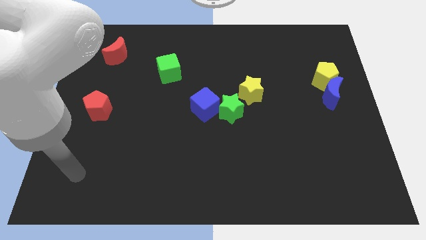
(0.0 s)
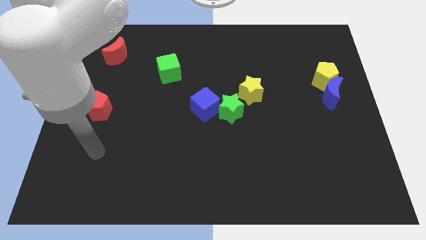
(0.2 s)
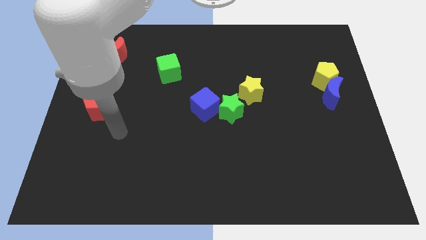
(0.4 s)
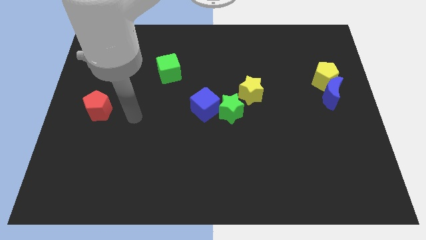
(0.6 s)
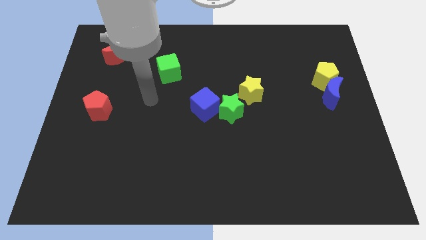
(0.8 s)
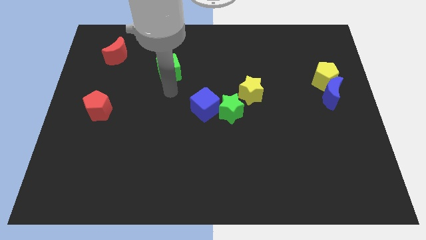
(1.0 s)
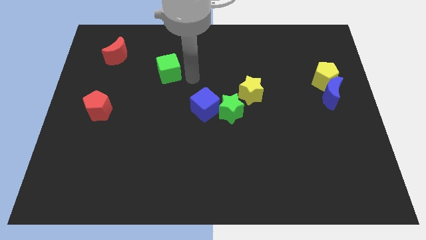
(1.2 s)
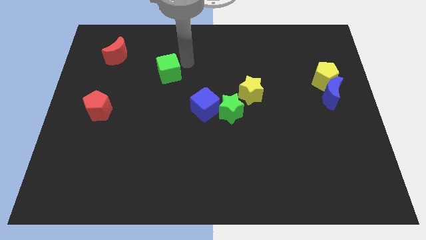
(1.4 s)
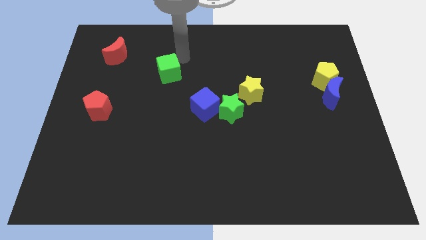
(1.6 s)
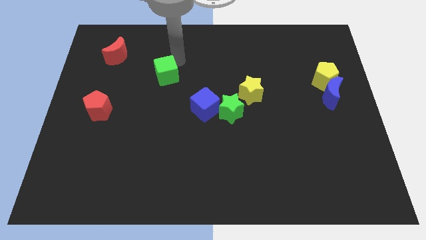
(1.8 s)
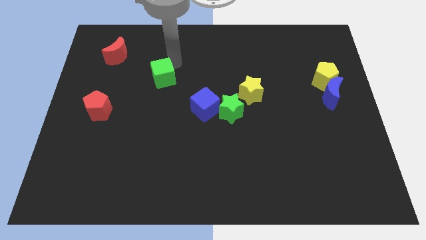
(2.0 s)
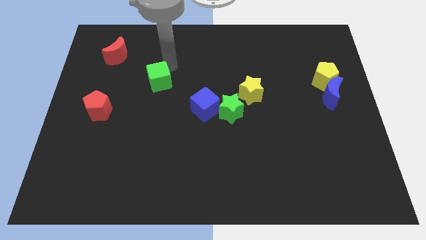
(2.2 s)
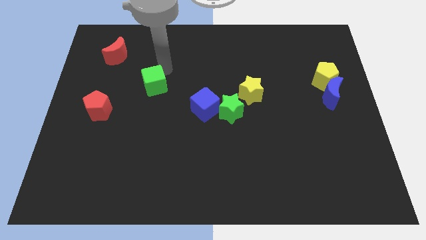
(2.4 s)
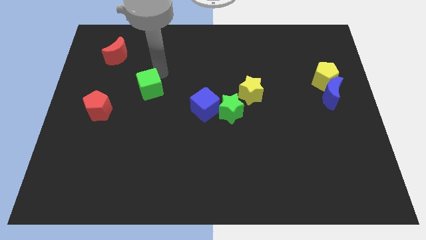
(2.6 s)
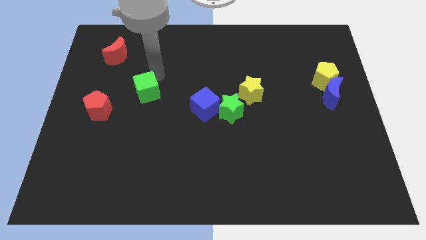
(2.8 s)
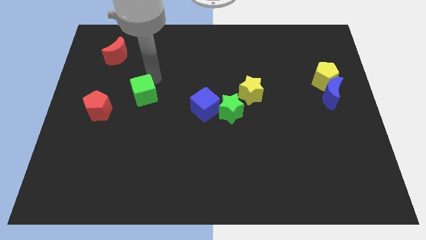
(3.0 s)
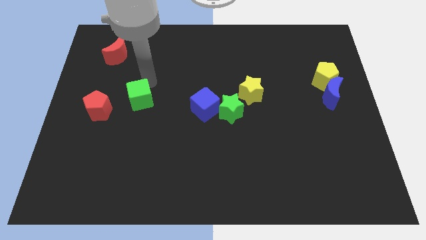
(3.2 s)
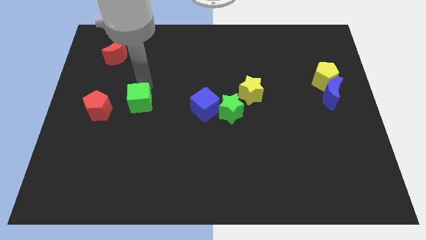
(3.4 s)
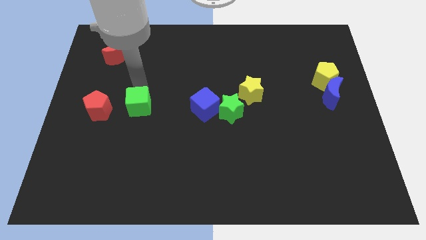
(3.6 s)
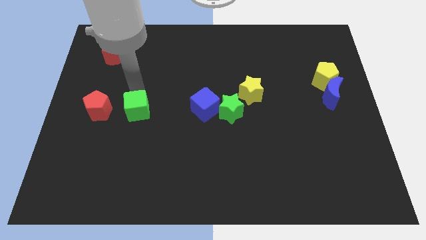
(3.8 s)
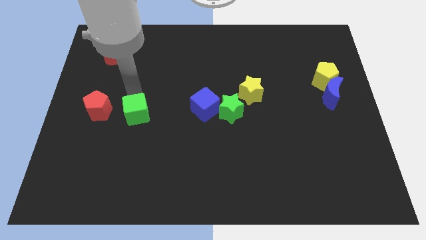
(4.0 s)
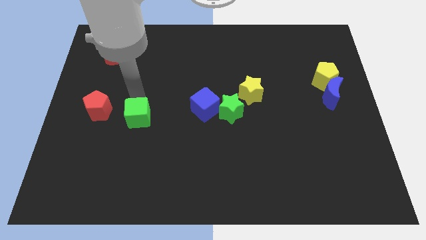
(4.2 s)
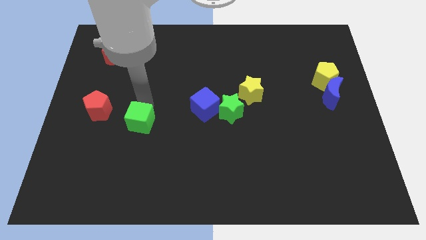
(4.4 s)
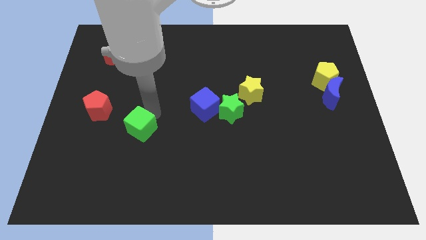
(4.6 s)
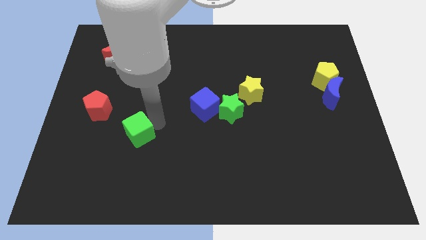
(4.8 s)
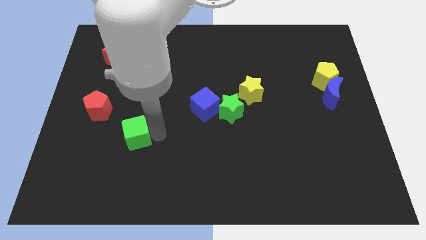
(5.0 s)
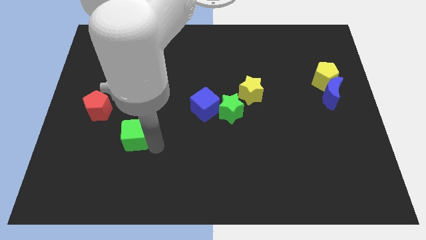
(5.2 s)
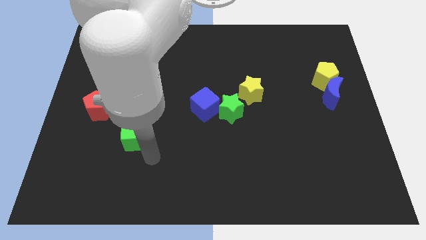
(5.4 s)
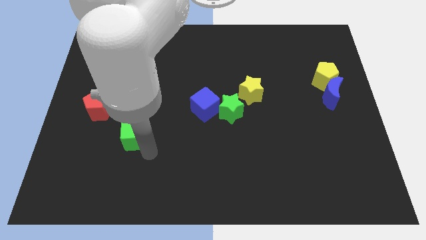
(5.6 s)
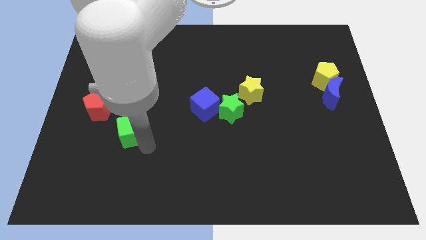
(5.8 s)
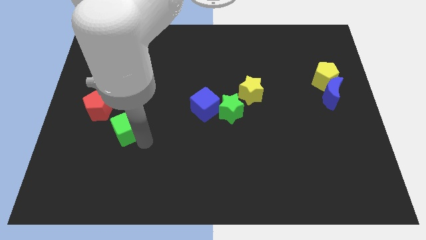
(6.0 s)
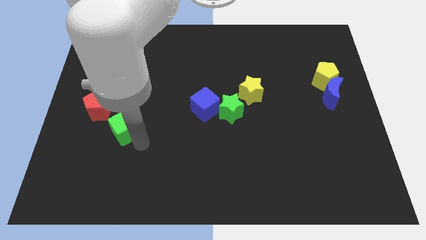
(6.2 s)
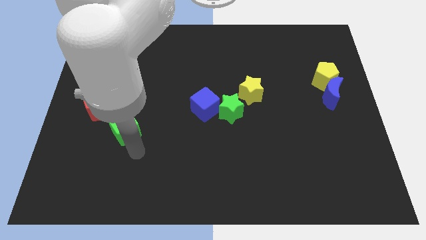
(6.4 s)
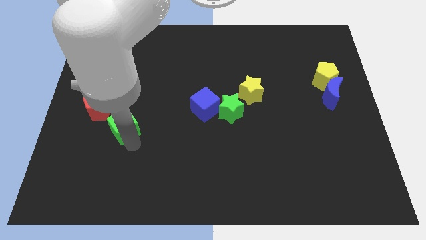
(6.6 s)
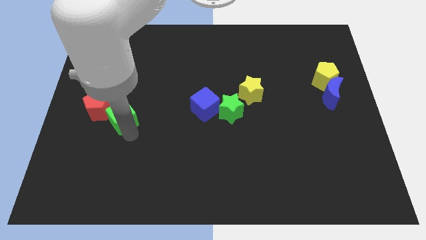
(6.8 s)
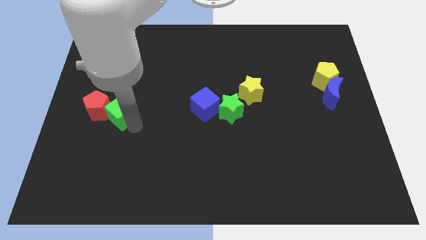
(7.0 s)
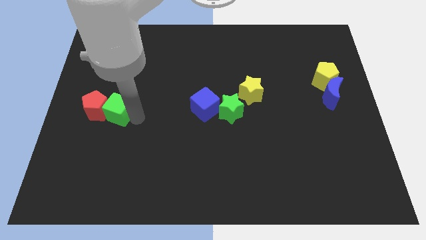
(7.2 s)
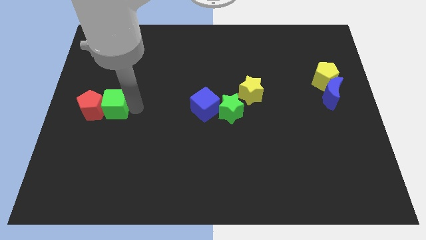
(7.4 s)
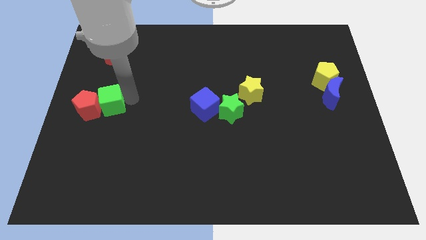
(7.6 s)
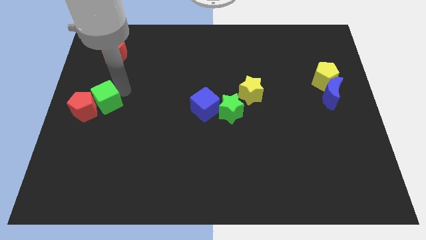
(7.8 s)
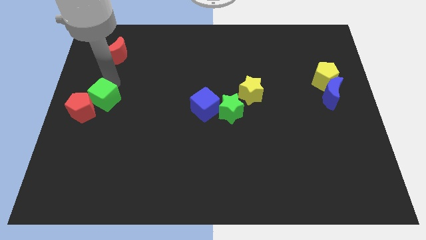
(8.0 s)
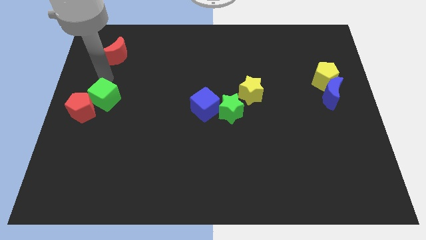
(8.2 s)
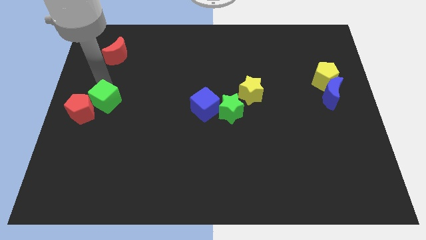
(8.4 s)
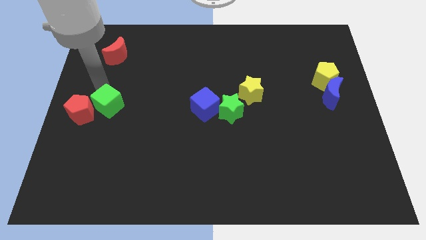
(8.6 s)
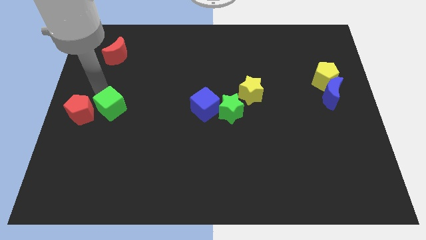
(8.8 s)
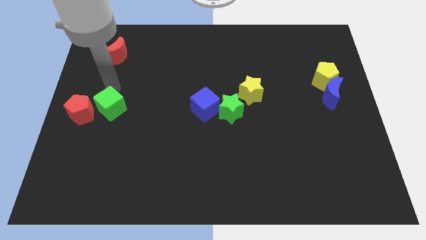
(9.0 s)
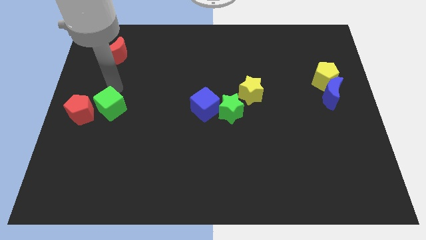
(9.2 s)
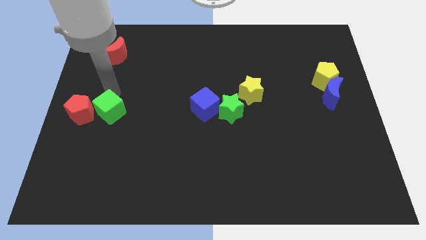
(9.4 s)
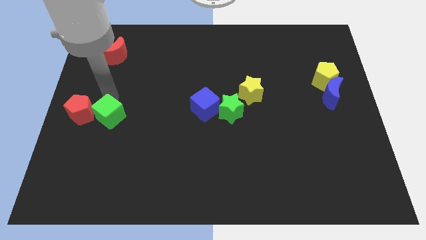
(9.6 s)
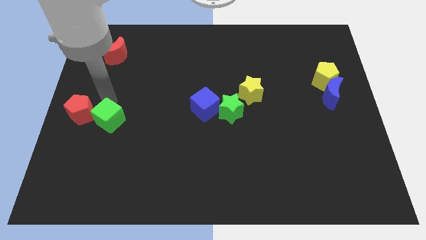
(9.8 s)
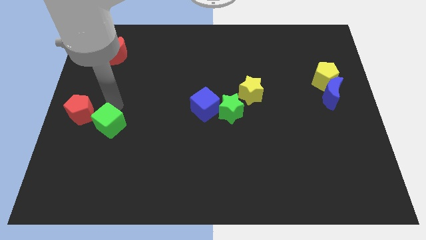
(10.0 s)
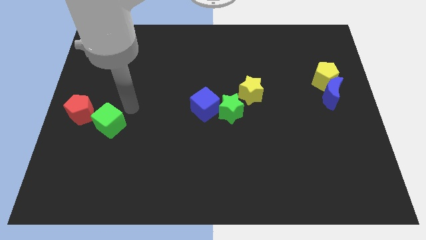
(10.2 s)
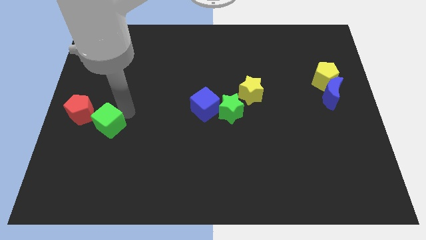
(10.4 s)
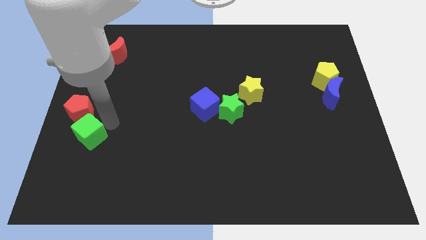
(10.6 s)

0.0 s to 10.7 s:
move the green cube to the bottom side of the red pentagon

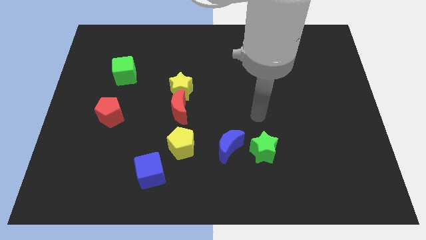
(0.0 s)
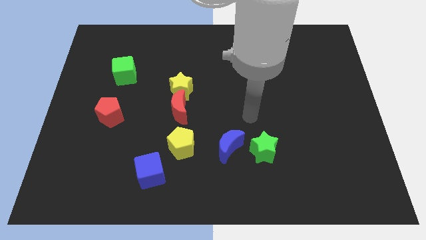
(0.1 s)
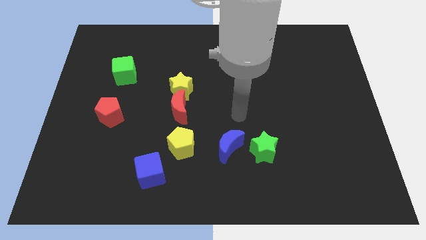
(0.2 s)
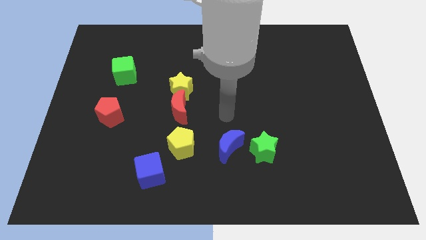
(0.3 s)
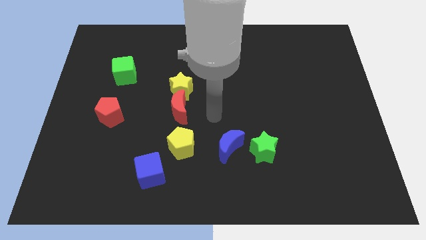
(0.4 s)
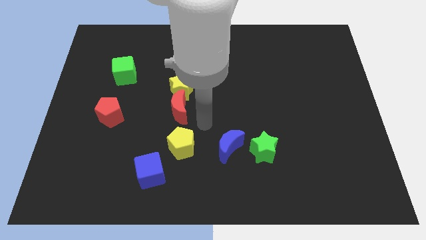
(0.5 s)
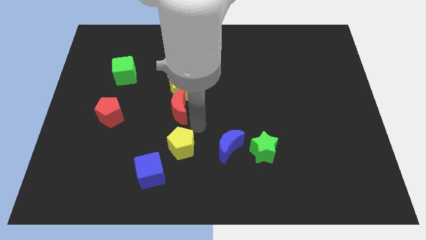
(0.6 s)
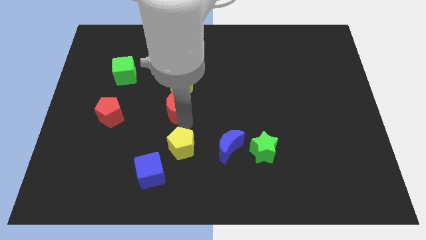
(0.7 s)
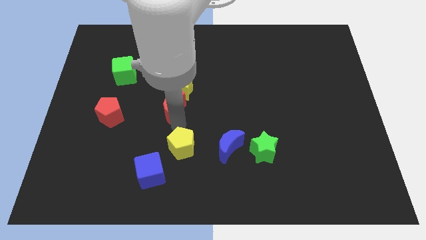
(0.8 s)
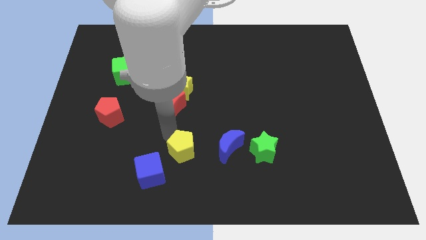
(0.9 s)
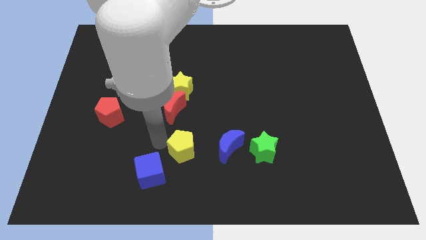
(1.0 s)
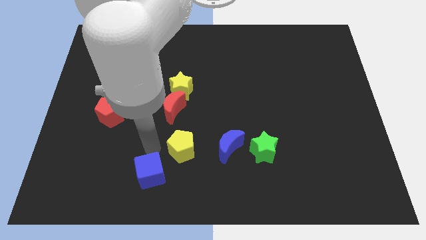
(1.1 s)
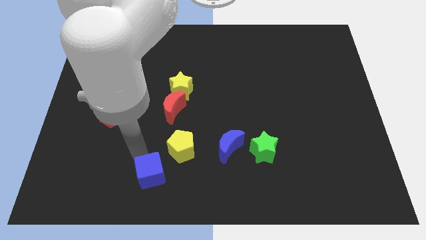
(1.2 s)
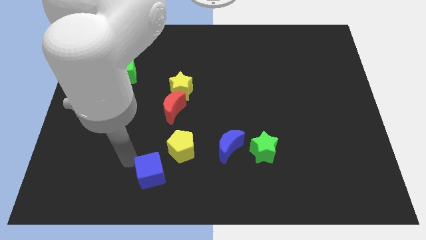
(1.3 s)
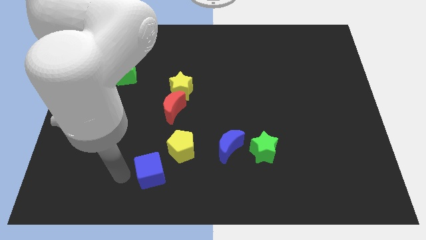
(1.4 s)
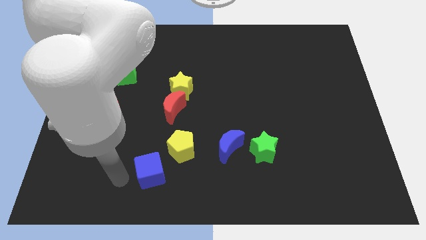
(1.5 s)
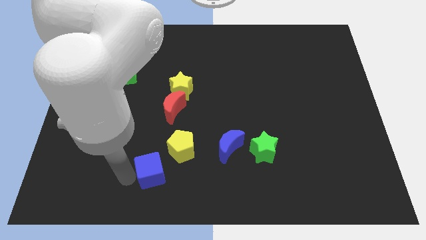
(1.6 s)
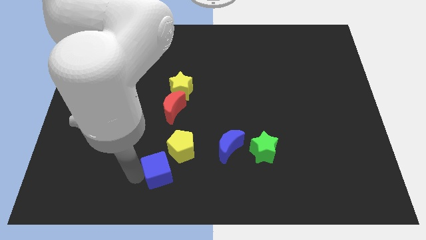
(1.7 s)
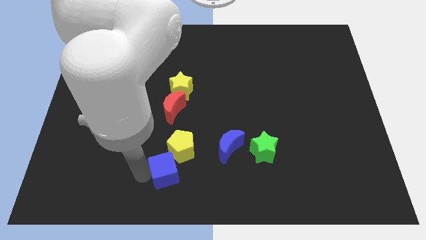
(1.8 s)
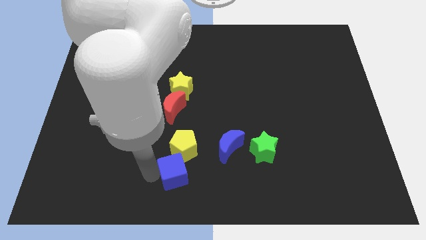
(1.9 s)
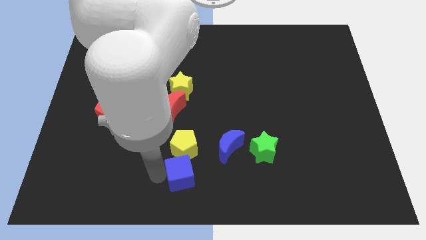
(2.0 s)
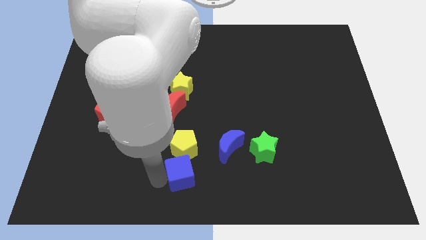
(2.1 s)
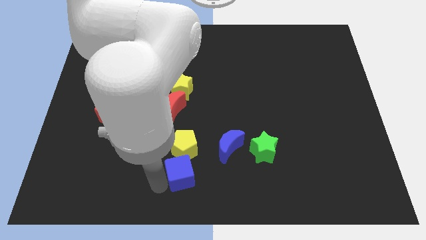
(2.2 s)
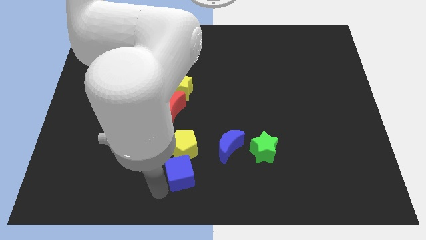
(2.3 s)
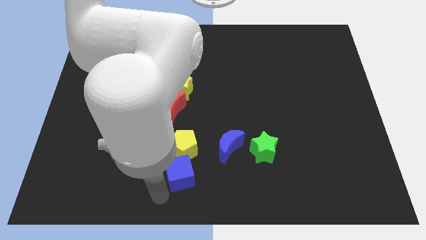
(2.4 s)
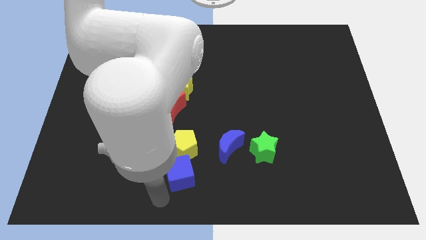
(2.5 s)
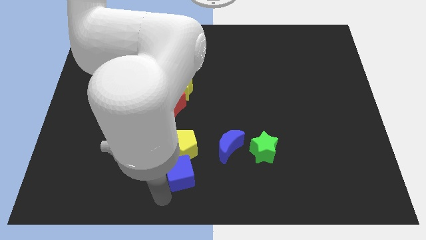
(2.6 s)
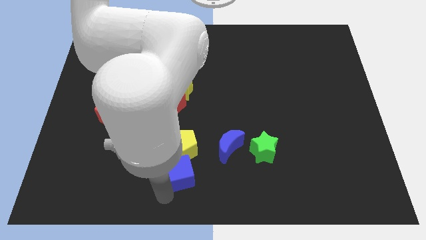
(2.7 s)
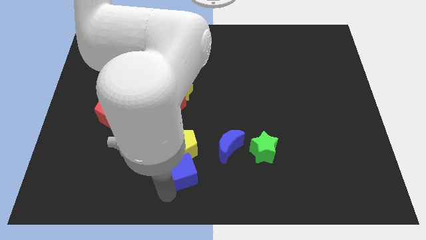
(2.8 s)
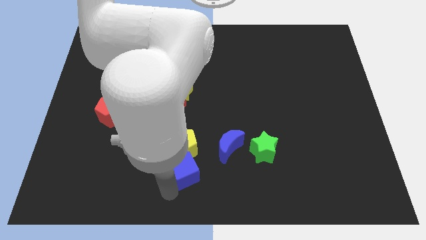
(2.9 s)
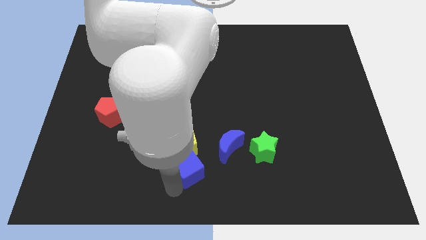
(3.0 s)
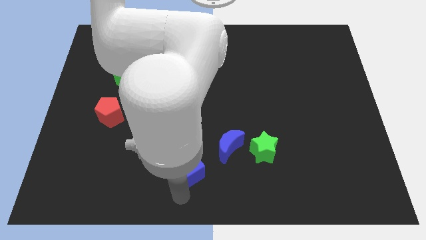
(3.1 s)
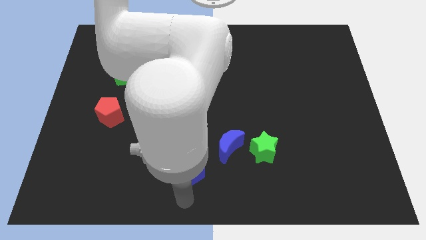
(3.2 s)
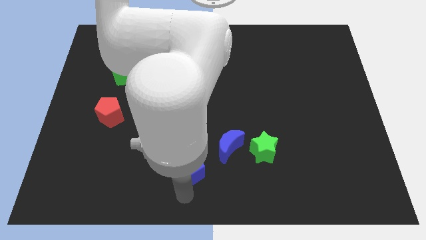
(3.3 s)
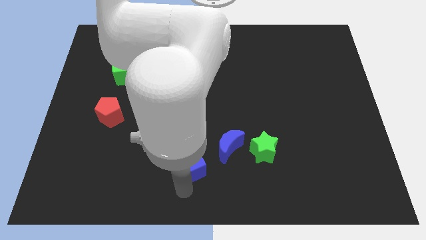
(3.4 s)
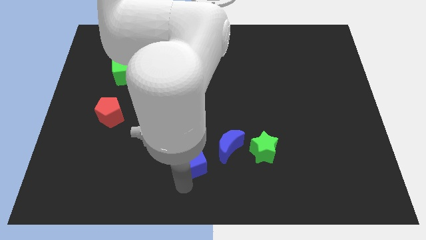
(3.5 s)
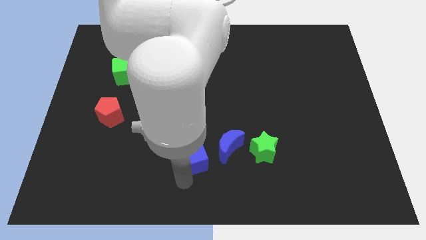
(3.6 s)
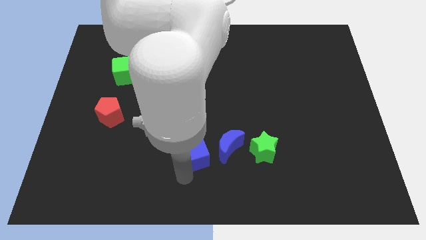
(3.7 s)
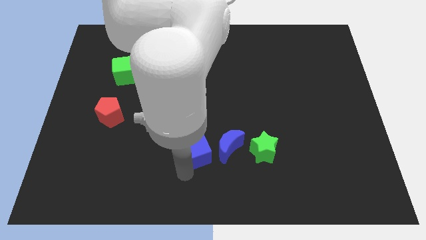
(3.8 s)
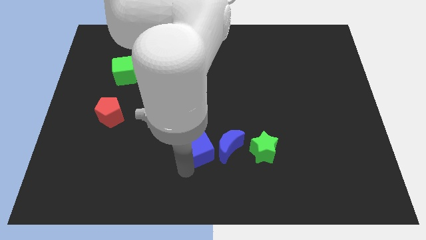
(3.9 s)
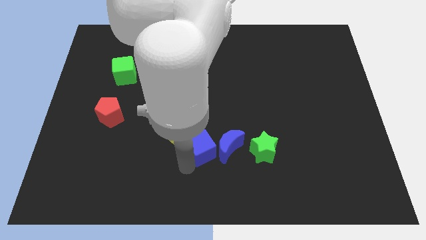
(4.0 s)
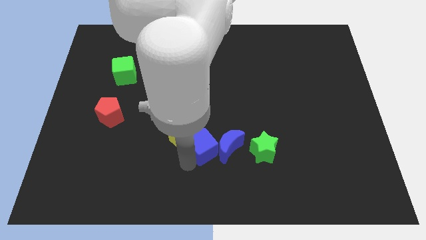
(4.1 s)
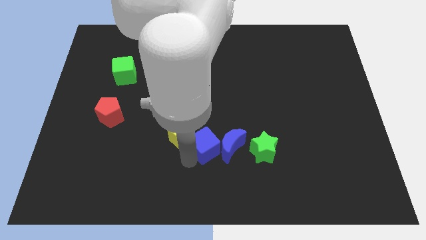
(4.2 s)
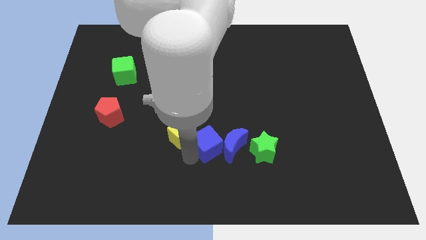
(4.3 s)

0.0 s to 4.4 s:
push the blue cube diagonally down and to the right of the red moon
